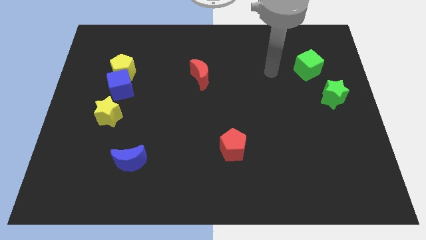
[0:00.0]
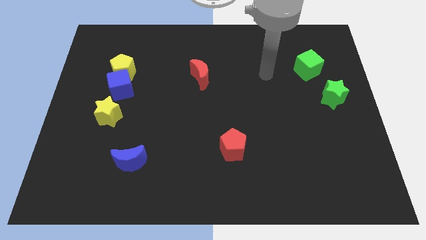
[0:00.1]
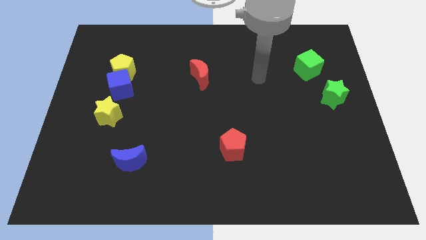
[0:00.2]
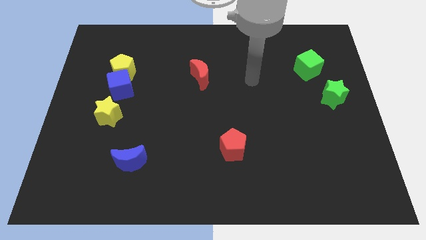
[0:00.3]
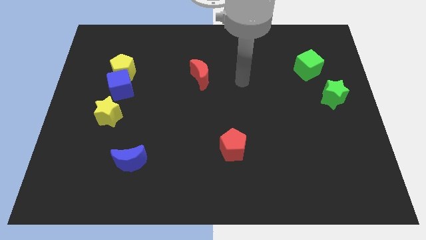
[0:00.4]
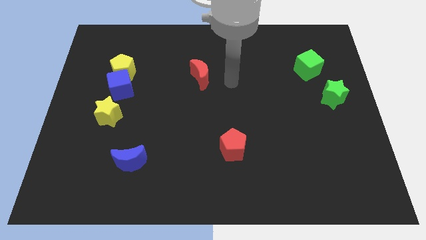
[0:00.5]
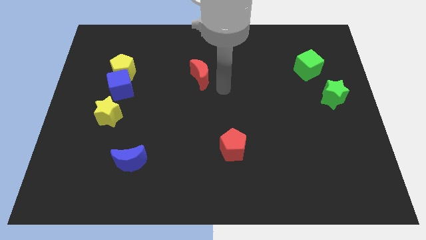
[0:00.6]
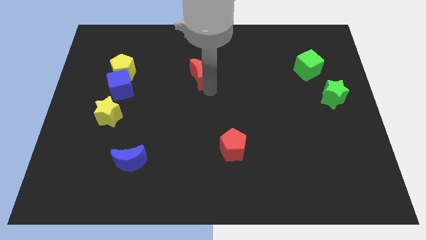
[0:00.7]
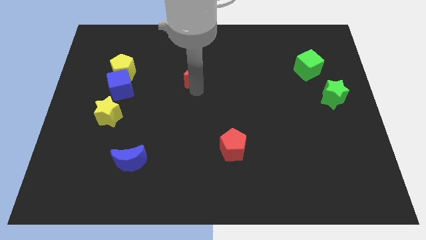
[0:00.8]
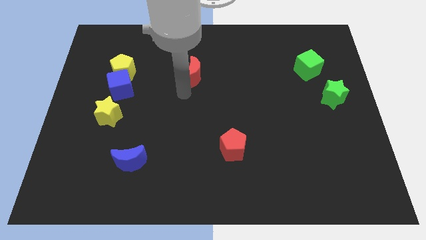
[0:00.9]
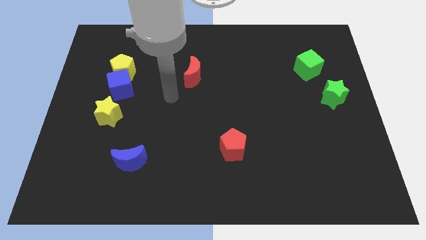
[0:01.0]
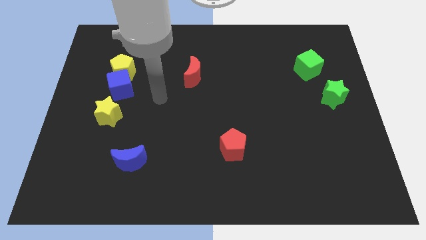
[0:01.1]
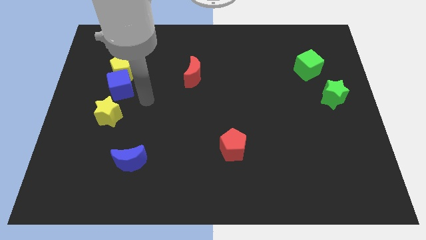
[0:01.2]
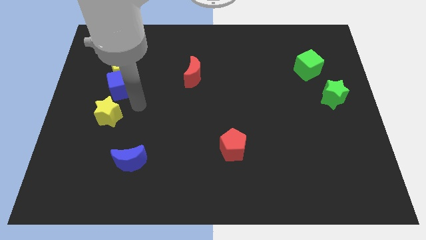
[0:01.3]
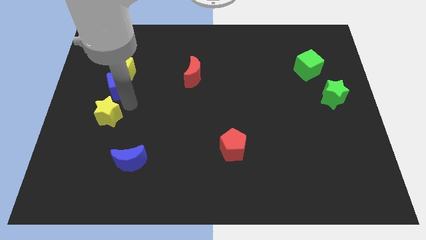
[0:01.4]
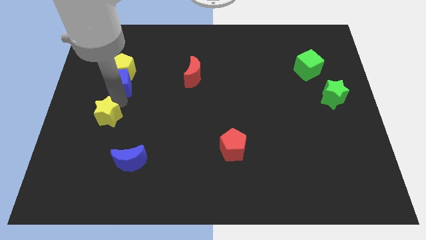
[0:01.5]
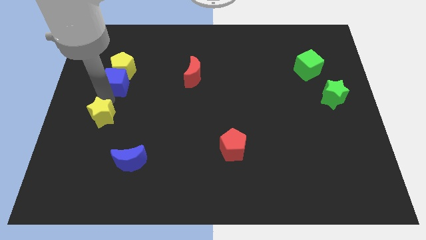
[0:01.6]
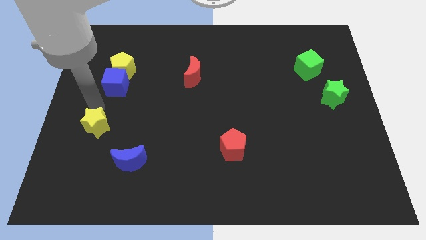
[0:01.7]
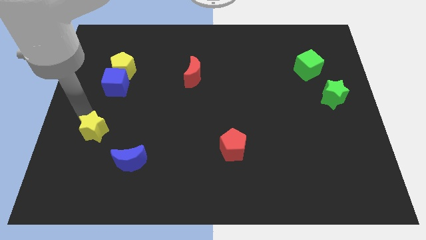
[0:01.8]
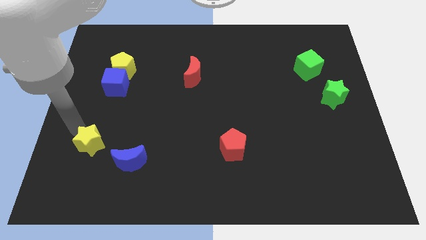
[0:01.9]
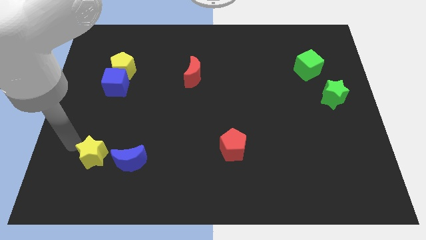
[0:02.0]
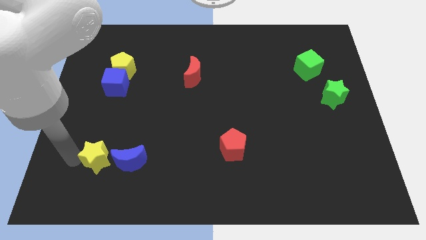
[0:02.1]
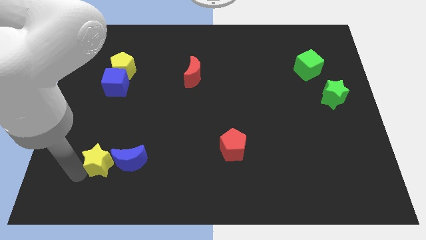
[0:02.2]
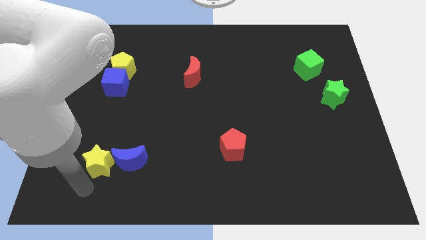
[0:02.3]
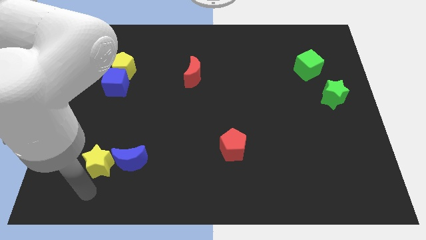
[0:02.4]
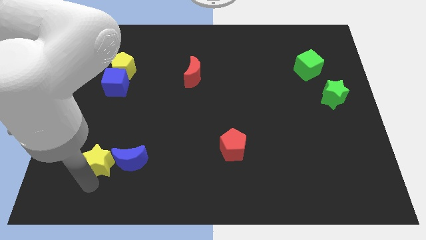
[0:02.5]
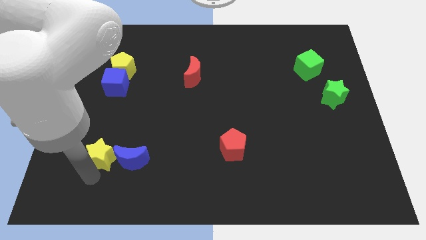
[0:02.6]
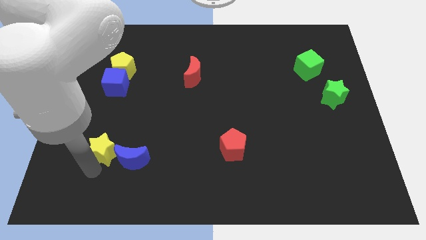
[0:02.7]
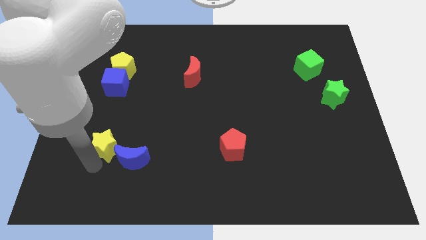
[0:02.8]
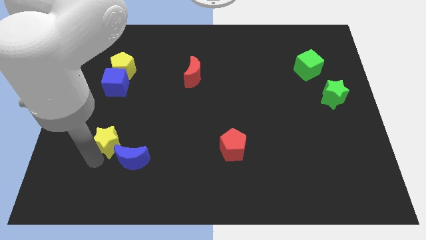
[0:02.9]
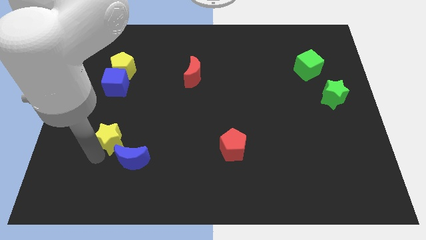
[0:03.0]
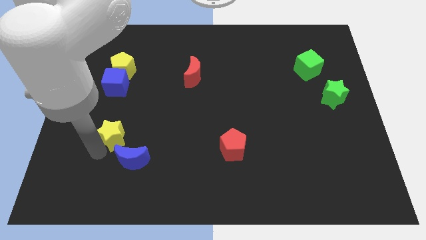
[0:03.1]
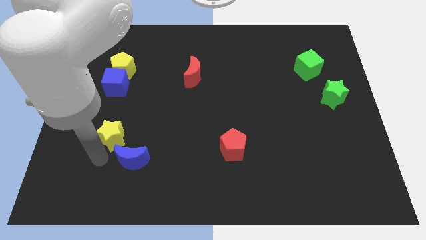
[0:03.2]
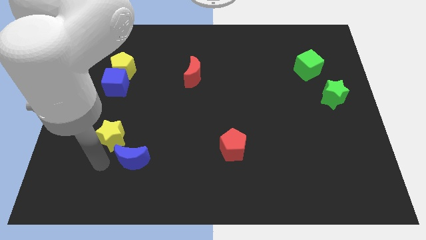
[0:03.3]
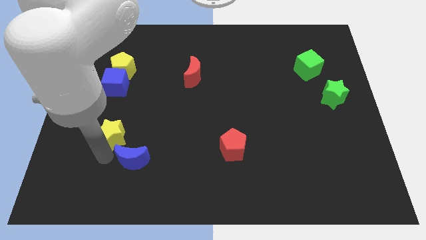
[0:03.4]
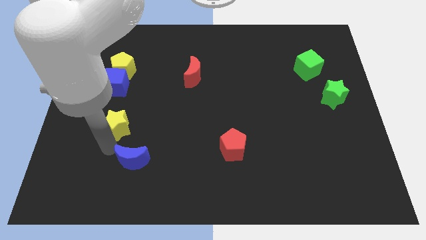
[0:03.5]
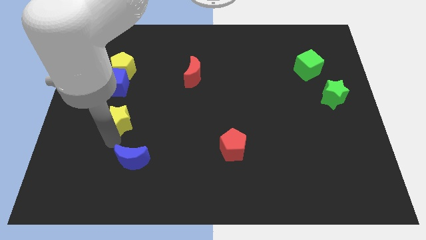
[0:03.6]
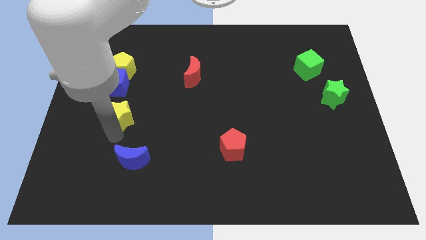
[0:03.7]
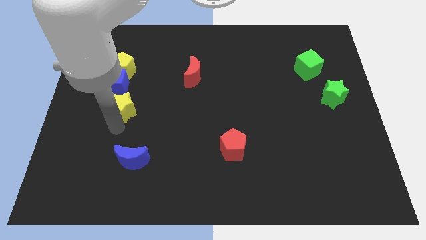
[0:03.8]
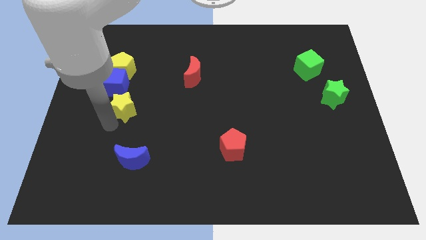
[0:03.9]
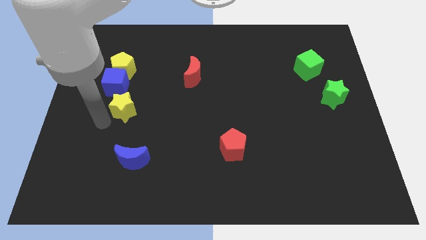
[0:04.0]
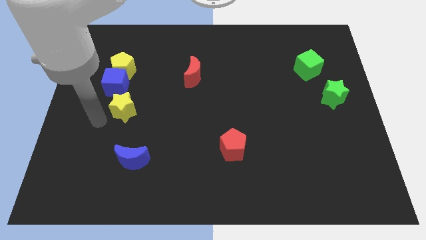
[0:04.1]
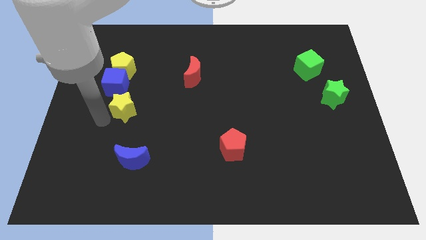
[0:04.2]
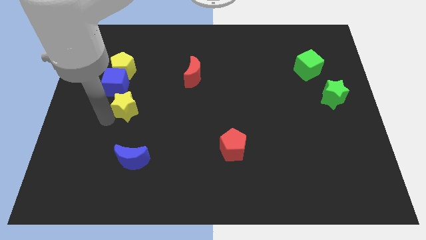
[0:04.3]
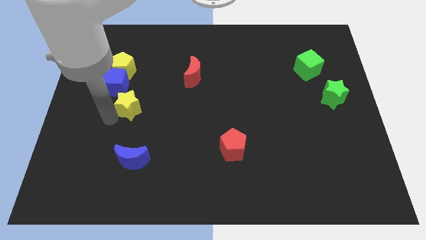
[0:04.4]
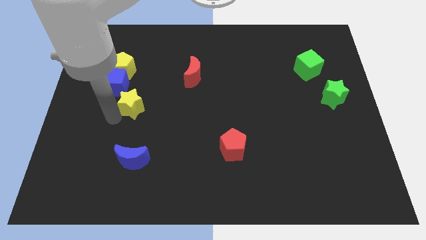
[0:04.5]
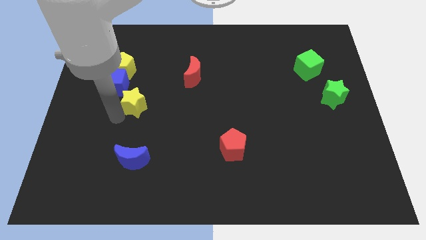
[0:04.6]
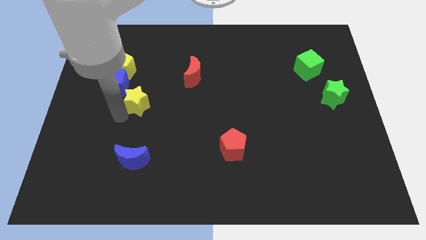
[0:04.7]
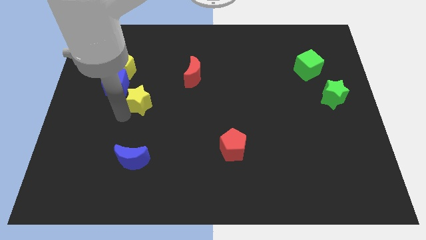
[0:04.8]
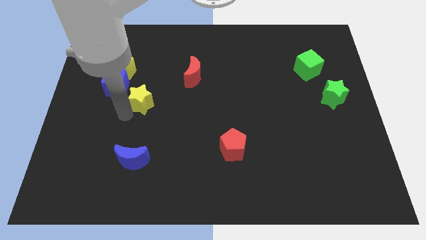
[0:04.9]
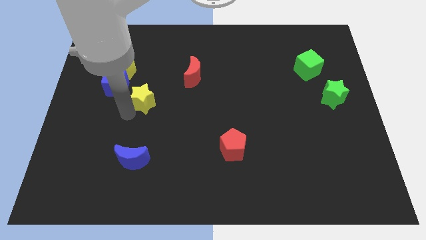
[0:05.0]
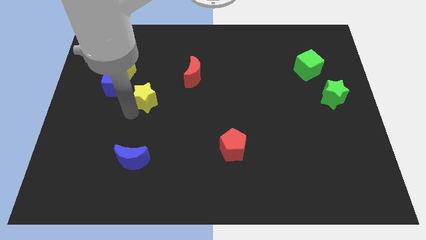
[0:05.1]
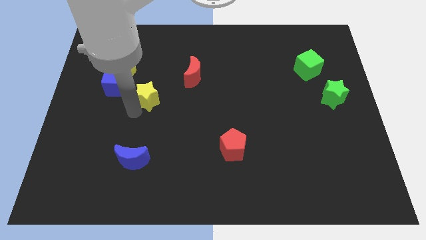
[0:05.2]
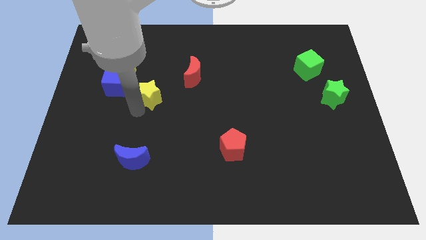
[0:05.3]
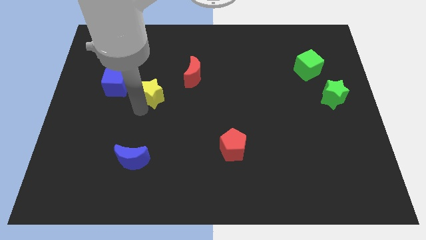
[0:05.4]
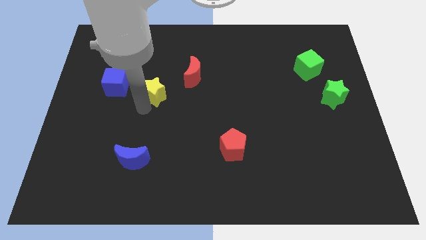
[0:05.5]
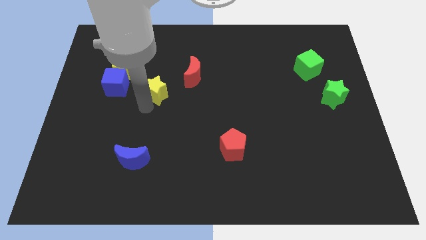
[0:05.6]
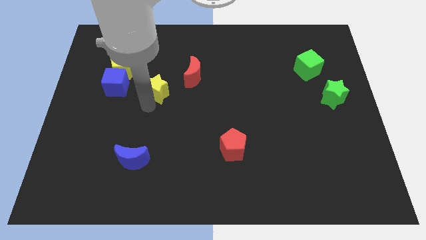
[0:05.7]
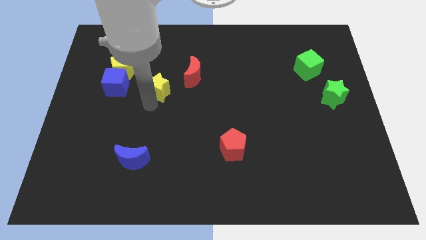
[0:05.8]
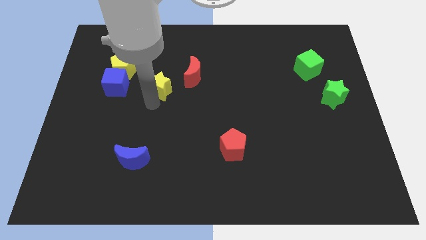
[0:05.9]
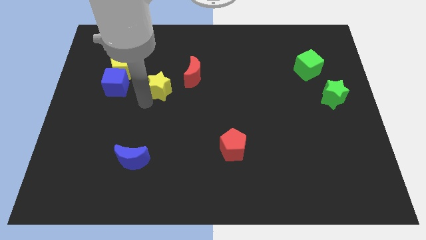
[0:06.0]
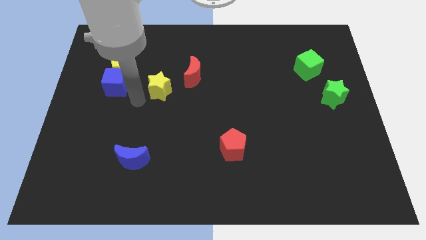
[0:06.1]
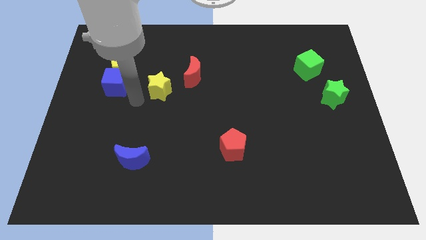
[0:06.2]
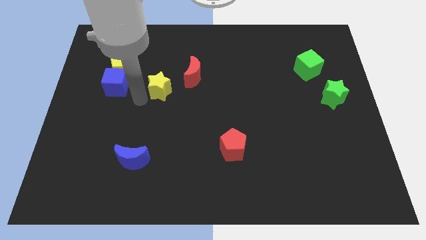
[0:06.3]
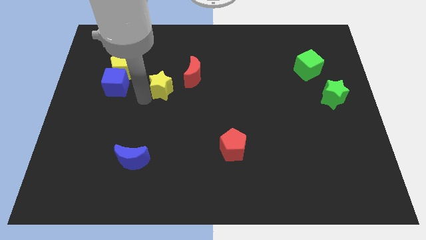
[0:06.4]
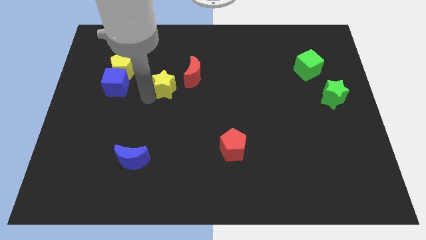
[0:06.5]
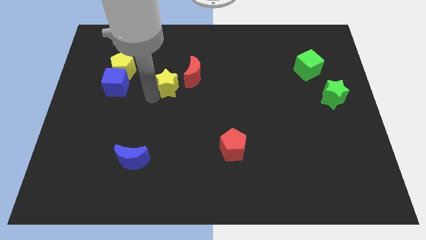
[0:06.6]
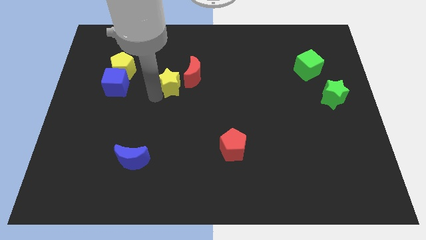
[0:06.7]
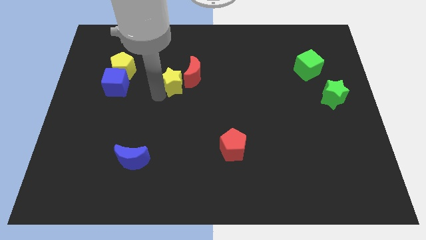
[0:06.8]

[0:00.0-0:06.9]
put the yellow star towards the red moon
